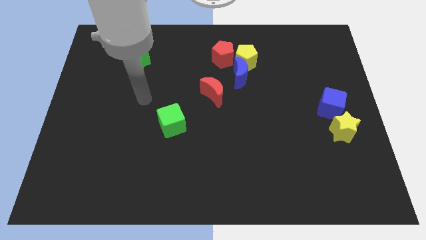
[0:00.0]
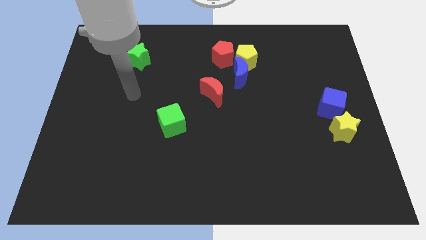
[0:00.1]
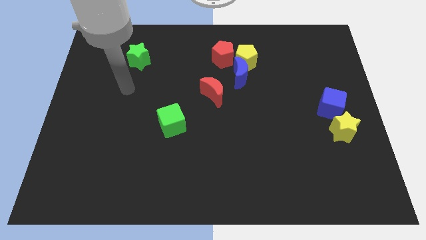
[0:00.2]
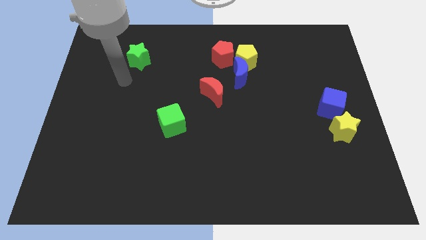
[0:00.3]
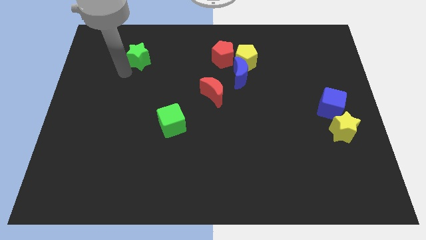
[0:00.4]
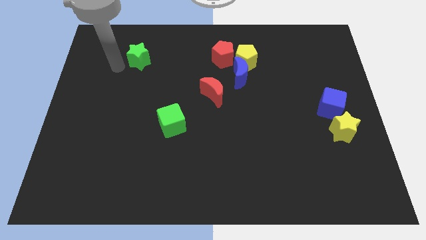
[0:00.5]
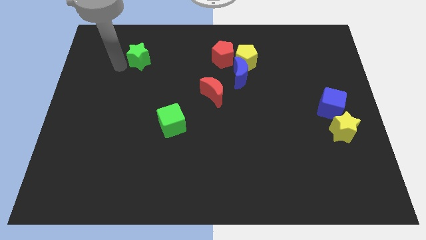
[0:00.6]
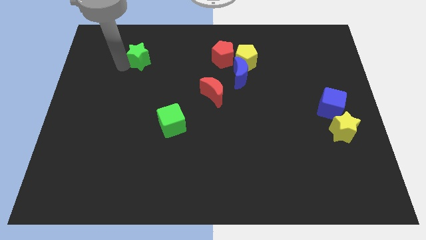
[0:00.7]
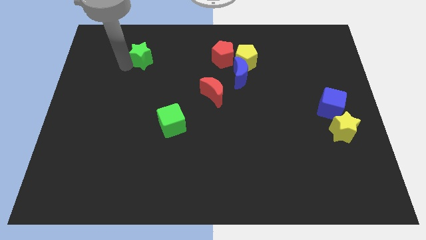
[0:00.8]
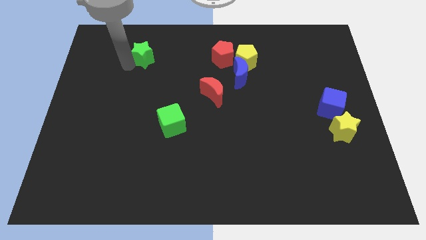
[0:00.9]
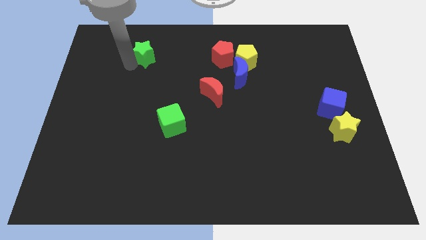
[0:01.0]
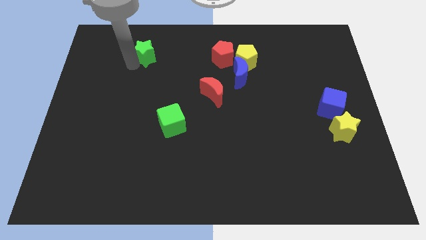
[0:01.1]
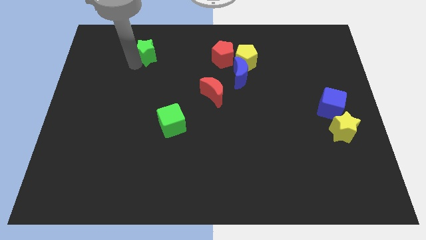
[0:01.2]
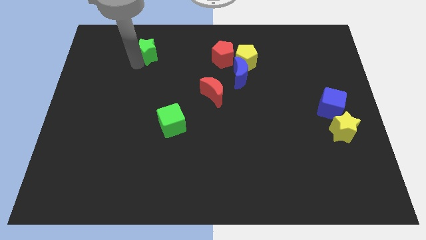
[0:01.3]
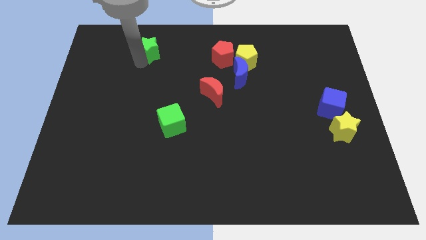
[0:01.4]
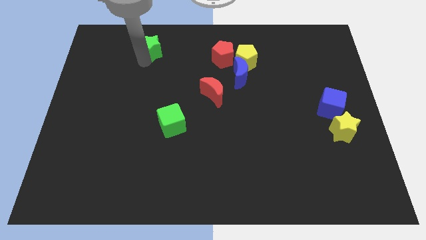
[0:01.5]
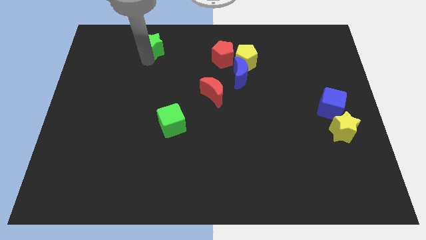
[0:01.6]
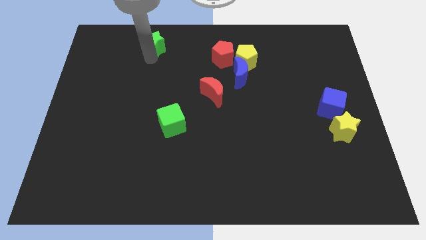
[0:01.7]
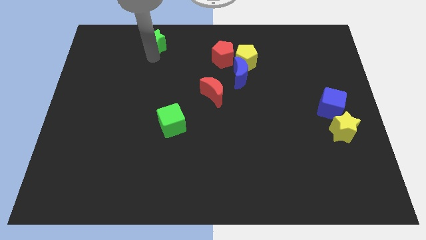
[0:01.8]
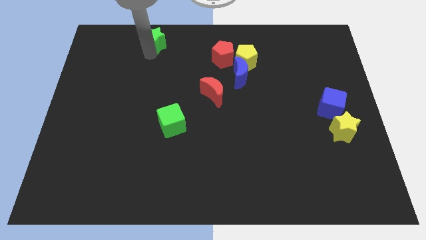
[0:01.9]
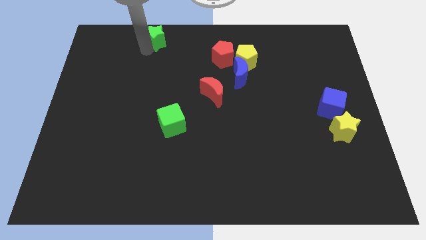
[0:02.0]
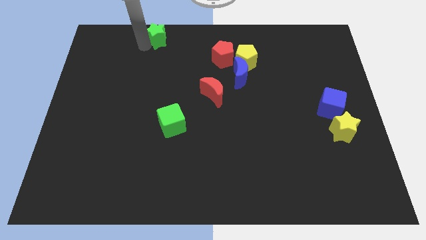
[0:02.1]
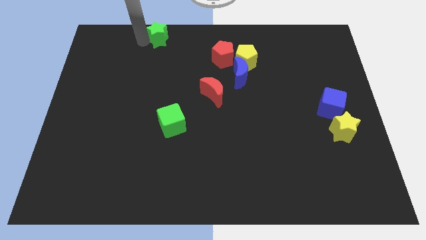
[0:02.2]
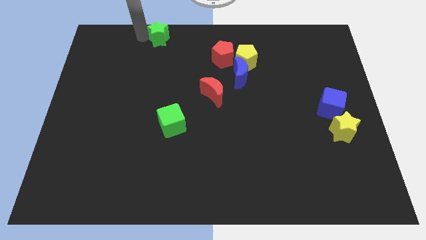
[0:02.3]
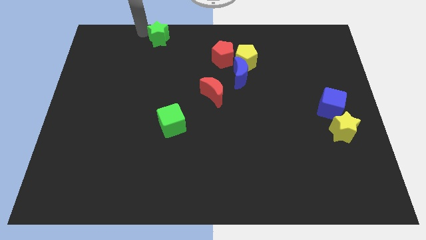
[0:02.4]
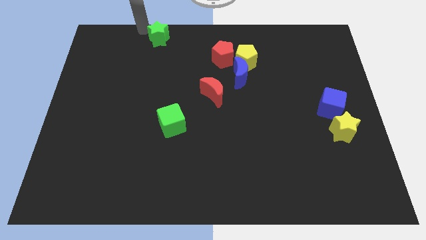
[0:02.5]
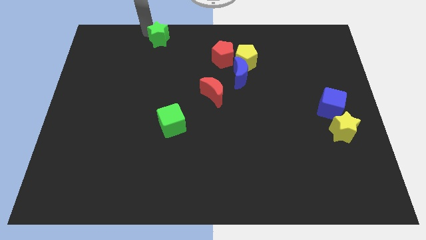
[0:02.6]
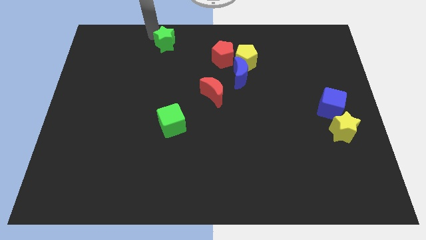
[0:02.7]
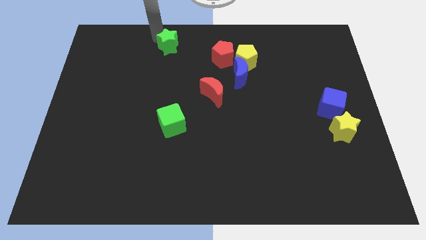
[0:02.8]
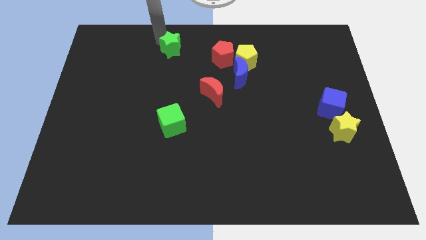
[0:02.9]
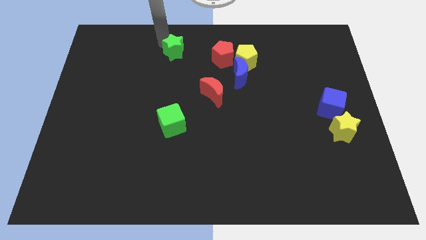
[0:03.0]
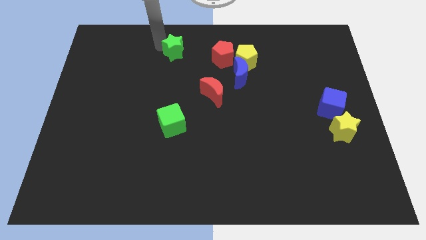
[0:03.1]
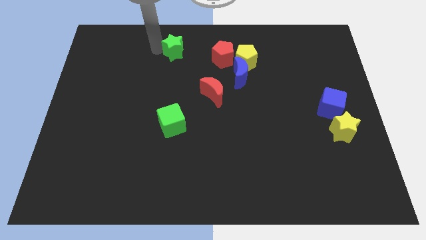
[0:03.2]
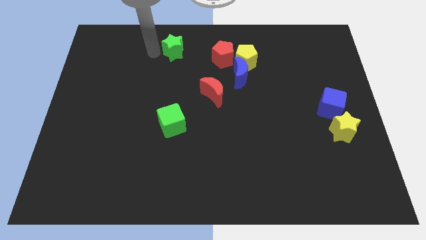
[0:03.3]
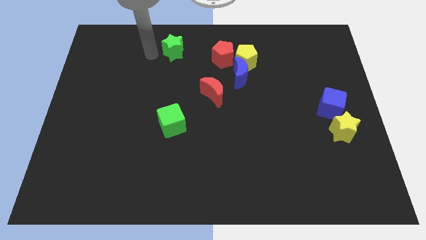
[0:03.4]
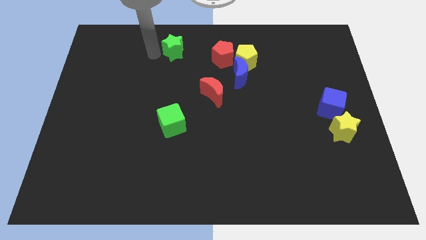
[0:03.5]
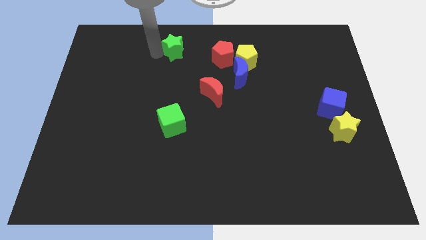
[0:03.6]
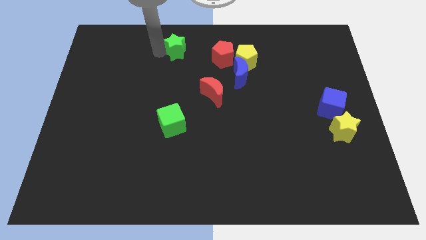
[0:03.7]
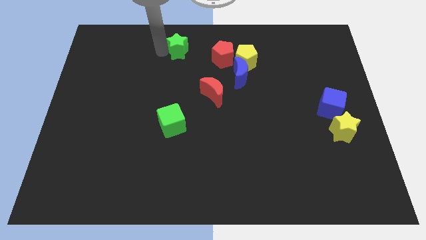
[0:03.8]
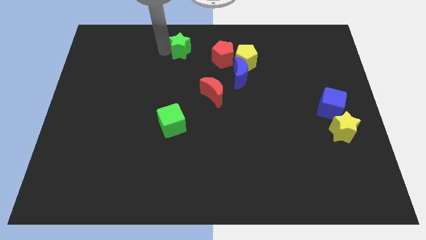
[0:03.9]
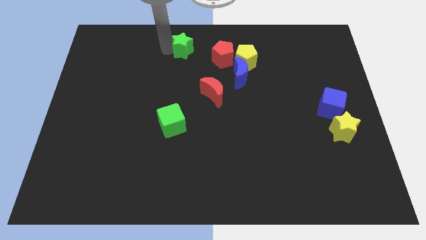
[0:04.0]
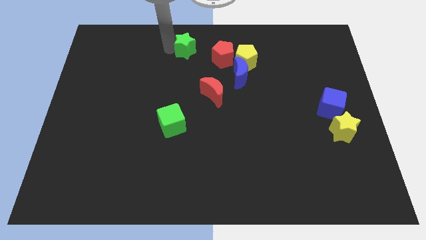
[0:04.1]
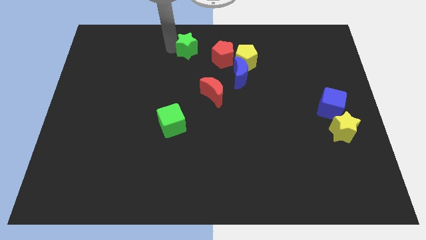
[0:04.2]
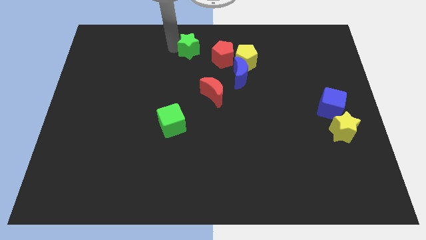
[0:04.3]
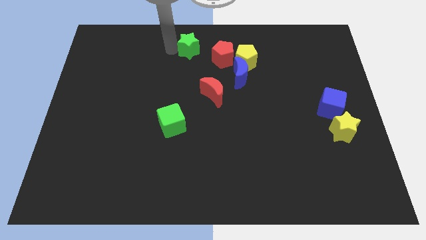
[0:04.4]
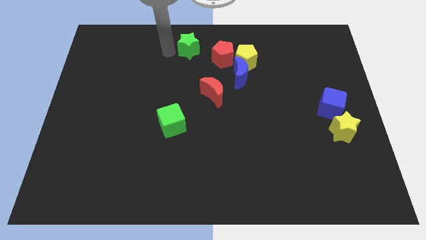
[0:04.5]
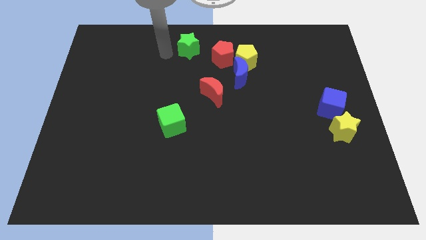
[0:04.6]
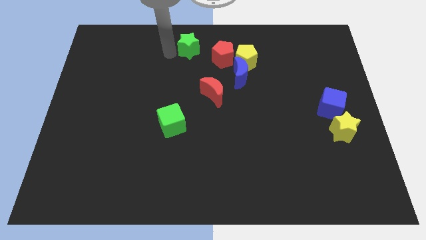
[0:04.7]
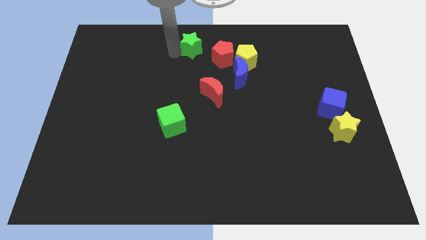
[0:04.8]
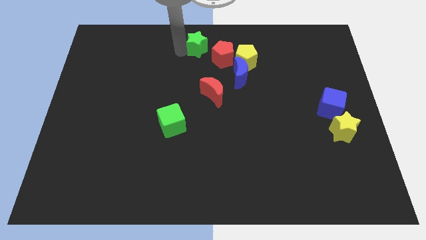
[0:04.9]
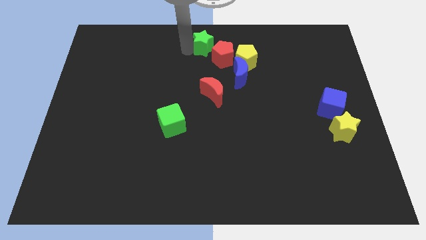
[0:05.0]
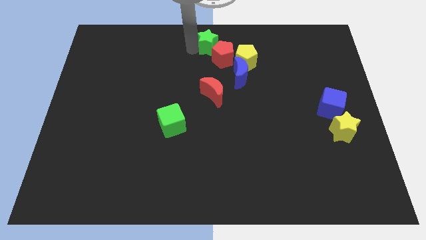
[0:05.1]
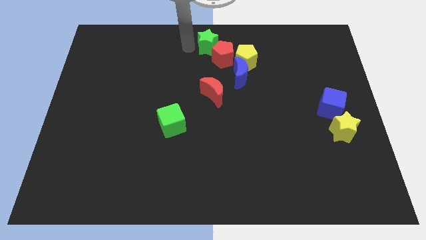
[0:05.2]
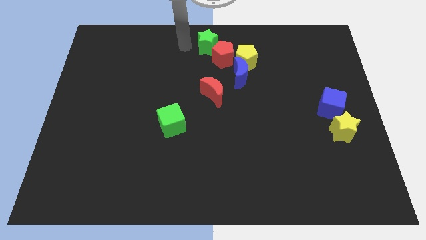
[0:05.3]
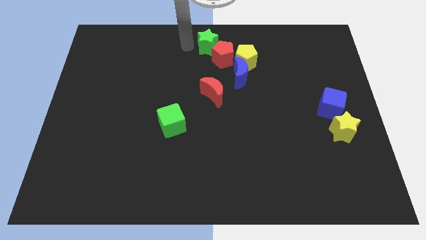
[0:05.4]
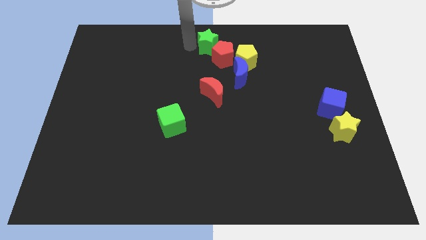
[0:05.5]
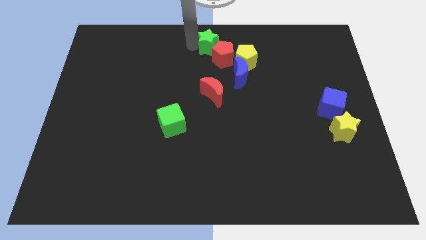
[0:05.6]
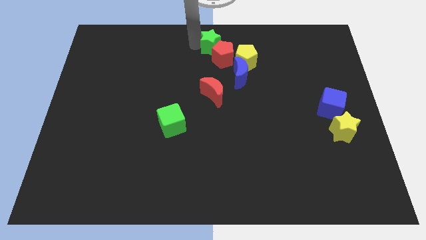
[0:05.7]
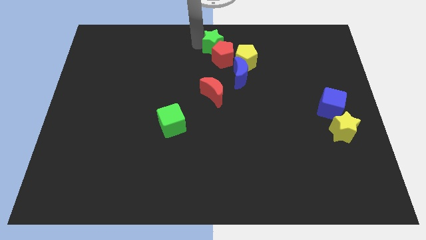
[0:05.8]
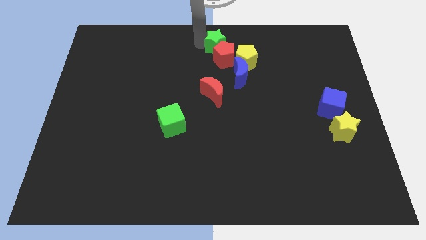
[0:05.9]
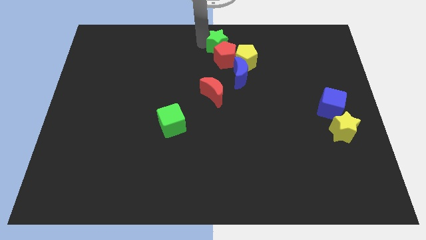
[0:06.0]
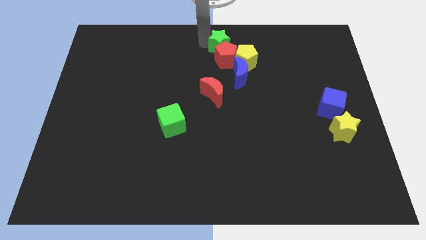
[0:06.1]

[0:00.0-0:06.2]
slide the green star to the right

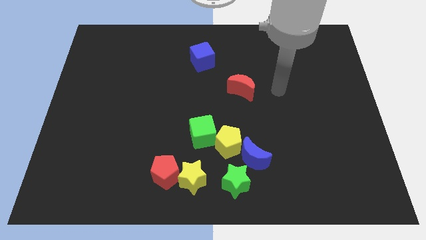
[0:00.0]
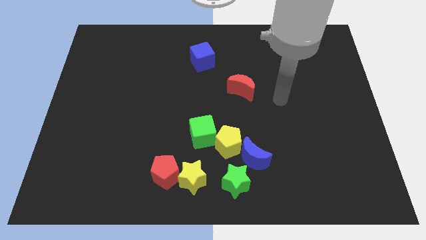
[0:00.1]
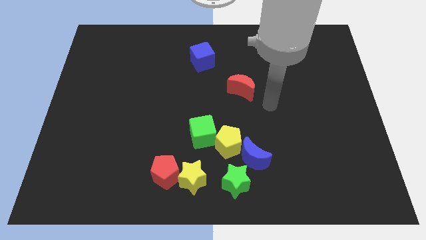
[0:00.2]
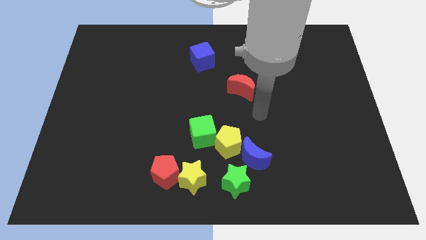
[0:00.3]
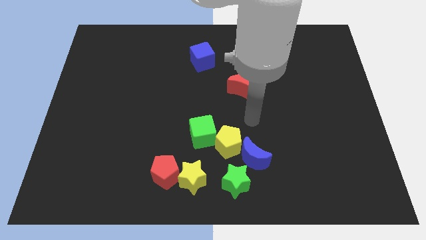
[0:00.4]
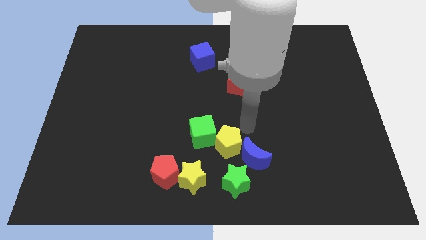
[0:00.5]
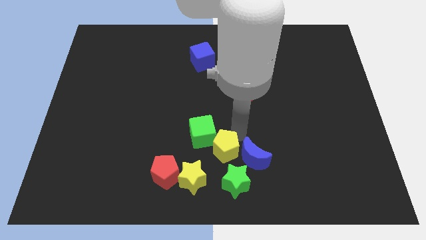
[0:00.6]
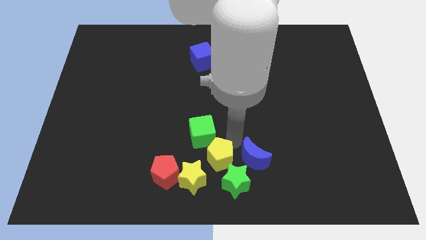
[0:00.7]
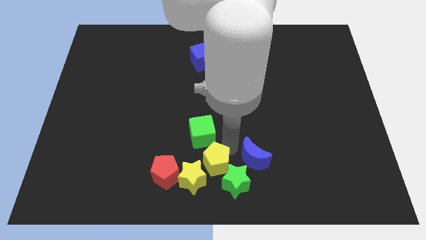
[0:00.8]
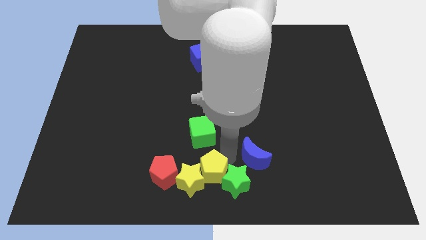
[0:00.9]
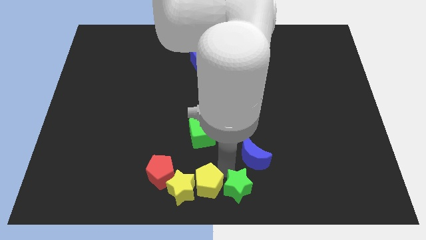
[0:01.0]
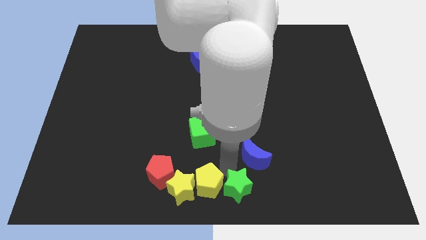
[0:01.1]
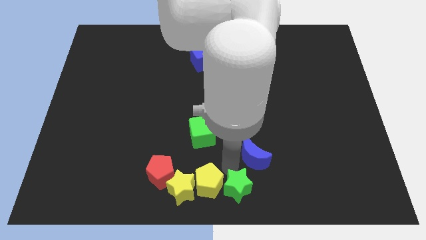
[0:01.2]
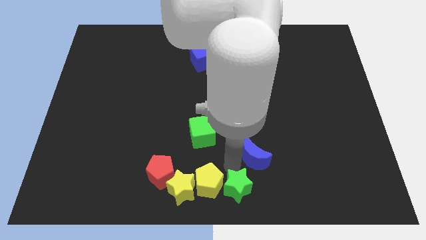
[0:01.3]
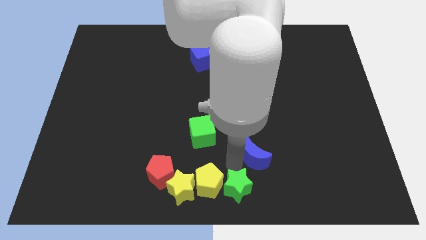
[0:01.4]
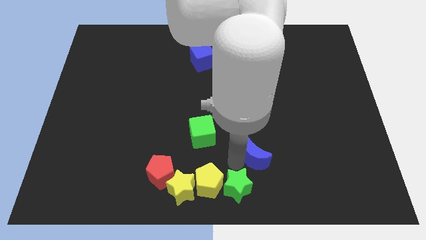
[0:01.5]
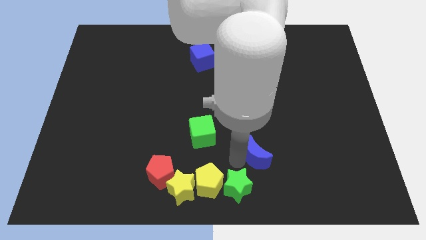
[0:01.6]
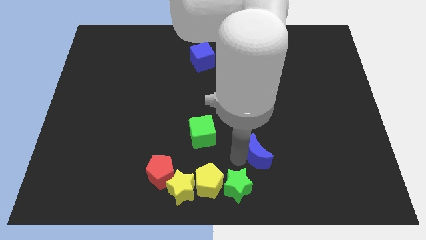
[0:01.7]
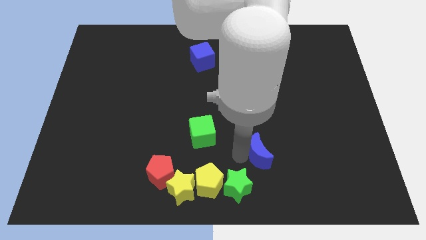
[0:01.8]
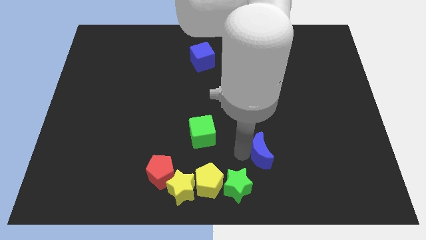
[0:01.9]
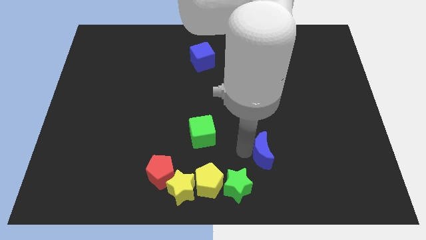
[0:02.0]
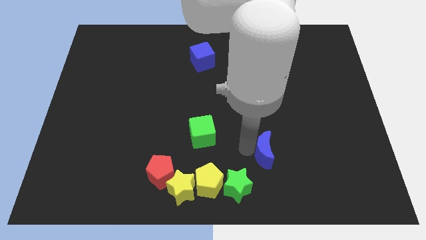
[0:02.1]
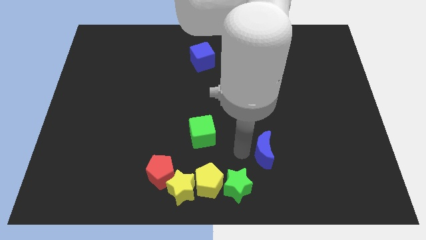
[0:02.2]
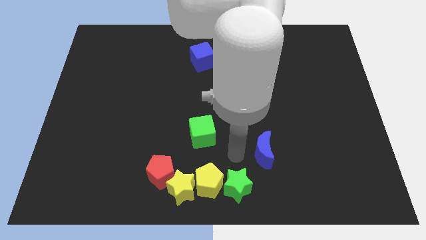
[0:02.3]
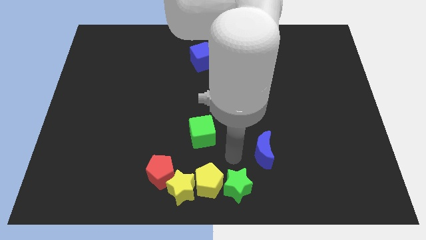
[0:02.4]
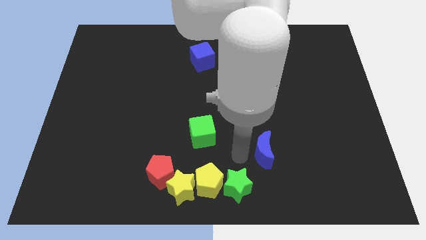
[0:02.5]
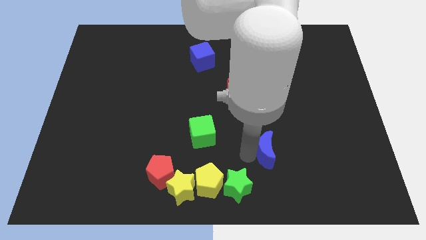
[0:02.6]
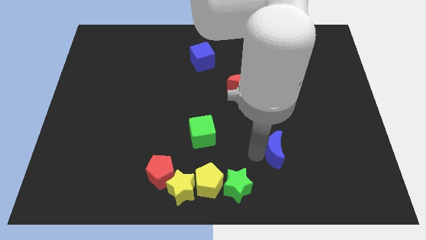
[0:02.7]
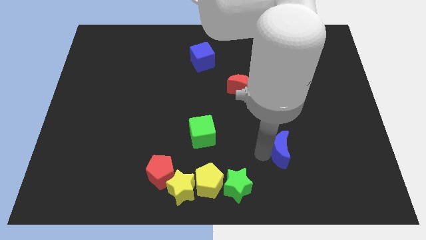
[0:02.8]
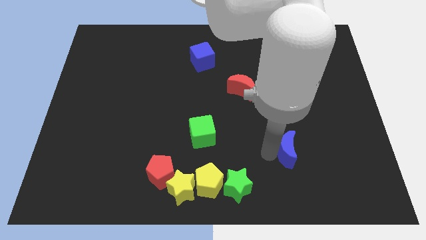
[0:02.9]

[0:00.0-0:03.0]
push the blue moon right slightly
